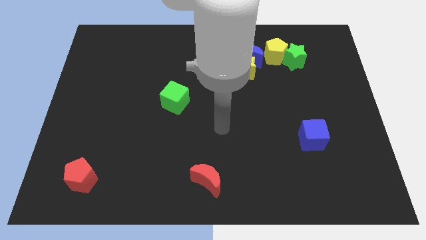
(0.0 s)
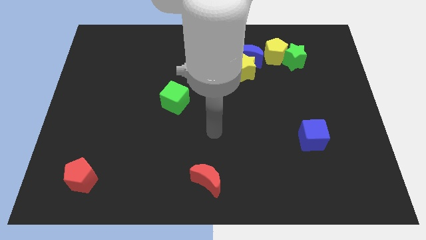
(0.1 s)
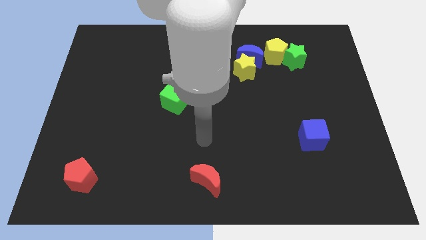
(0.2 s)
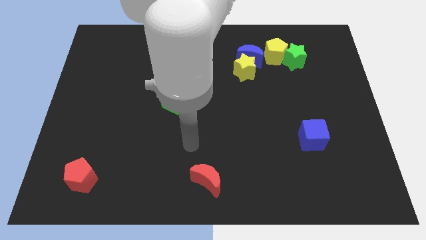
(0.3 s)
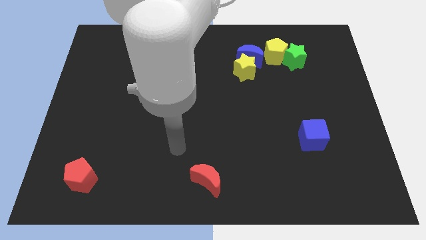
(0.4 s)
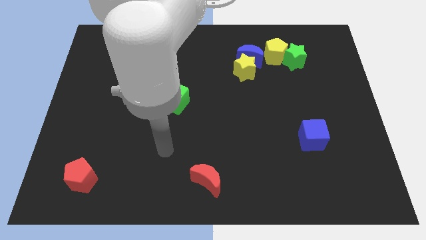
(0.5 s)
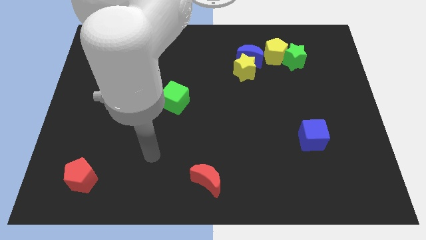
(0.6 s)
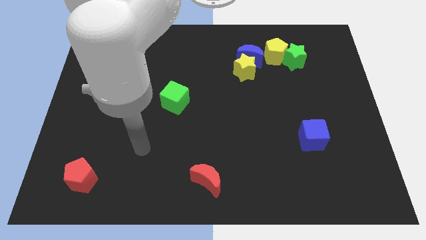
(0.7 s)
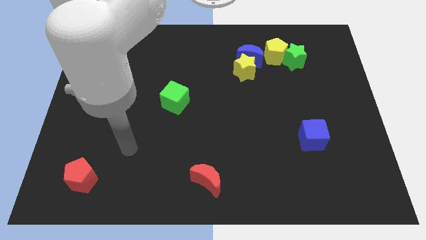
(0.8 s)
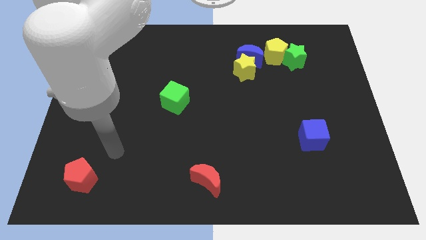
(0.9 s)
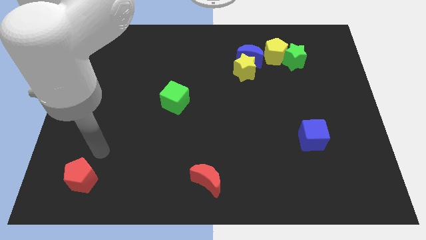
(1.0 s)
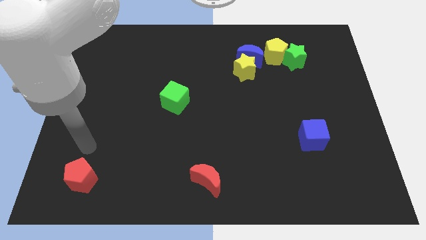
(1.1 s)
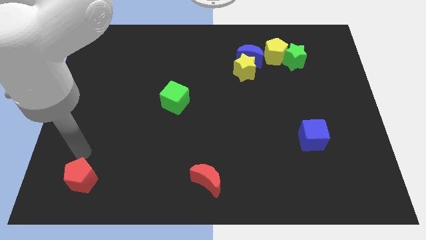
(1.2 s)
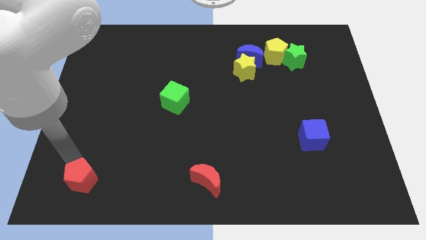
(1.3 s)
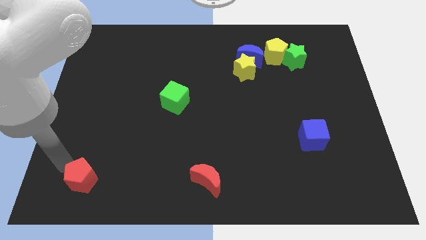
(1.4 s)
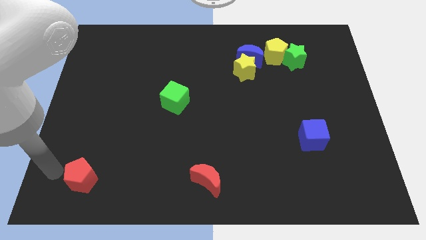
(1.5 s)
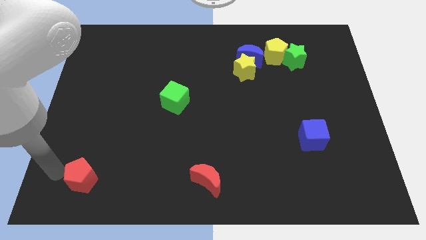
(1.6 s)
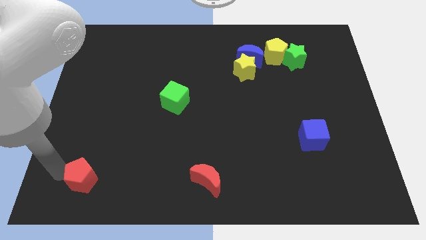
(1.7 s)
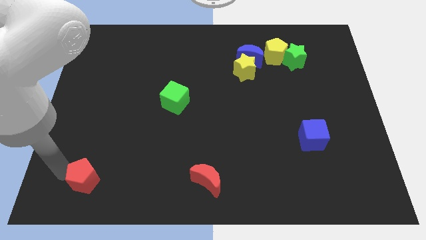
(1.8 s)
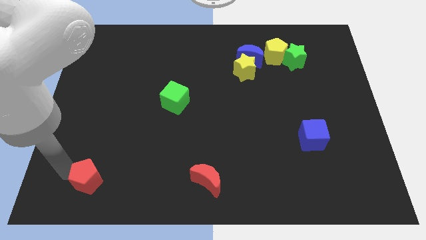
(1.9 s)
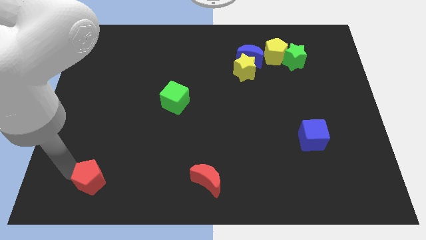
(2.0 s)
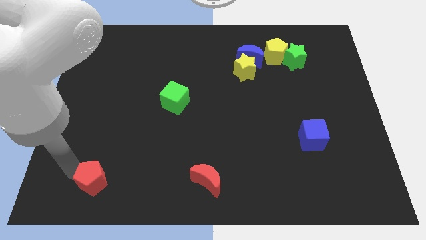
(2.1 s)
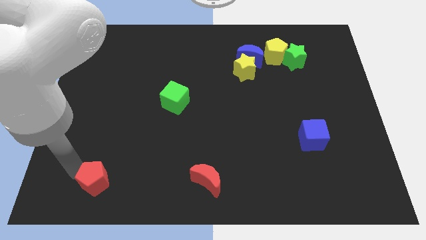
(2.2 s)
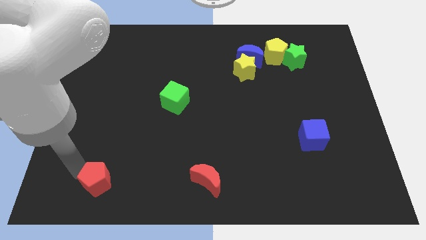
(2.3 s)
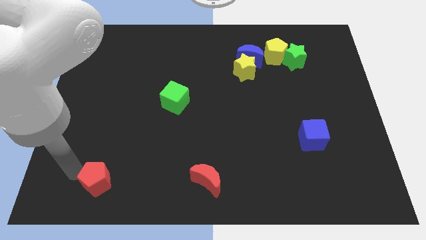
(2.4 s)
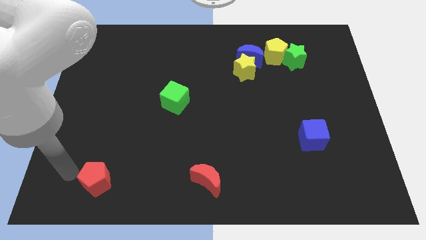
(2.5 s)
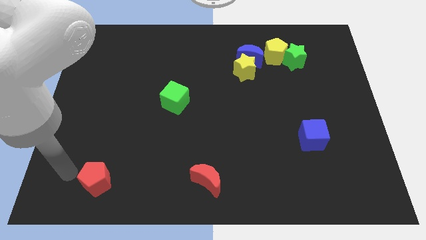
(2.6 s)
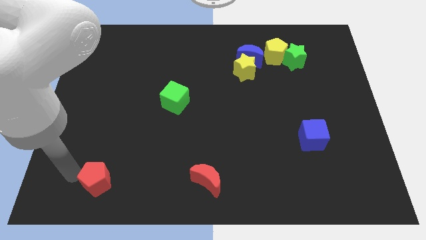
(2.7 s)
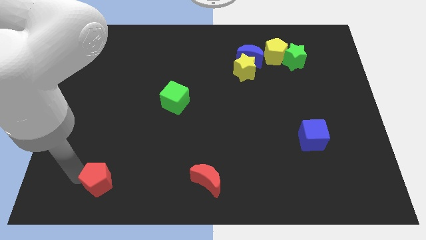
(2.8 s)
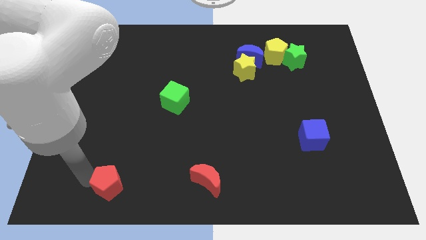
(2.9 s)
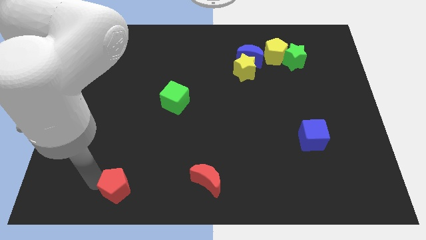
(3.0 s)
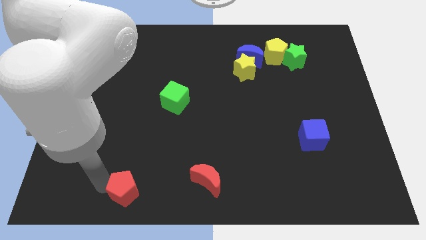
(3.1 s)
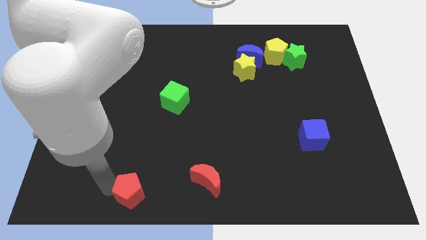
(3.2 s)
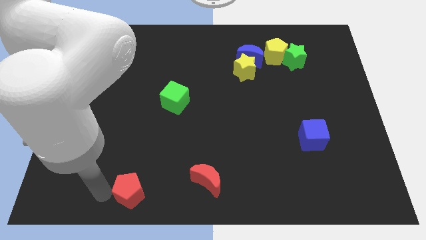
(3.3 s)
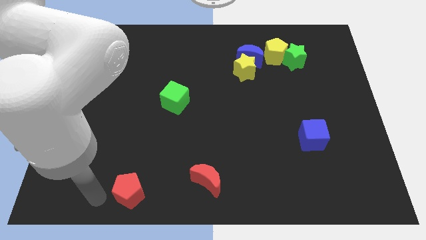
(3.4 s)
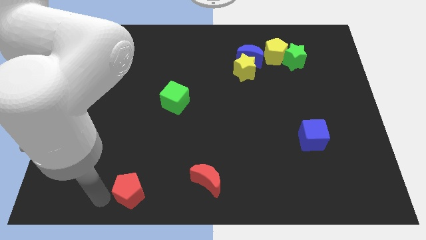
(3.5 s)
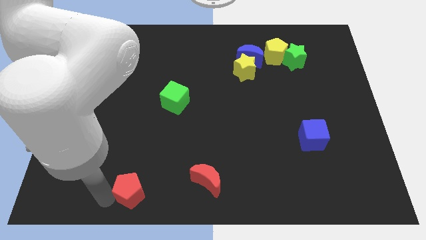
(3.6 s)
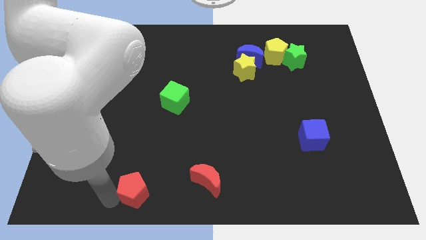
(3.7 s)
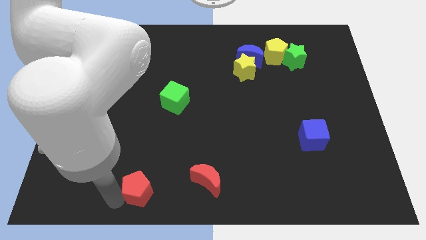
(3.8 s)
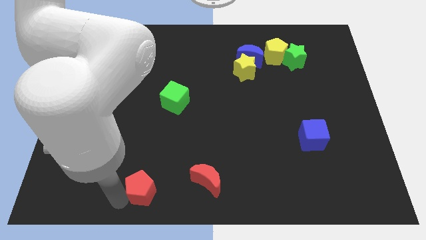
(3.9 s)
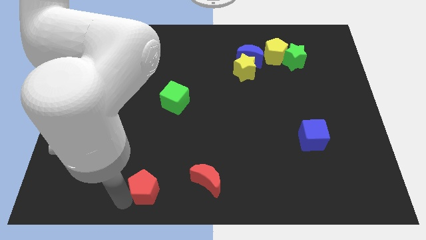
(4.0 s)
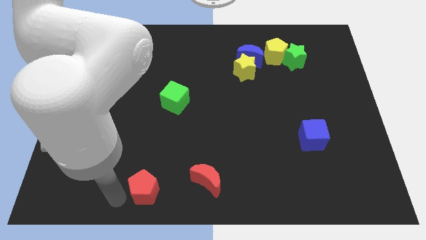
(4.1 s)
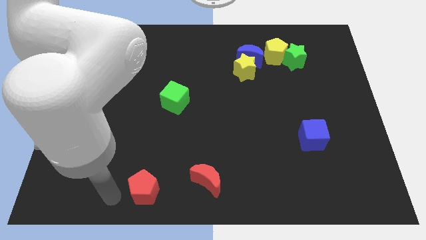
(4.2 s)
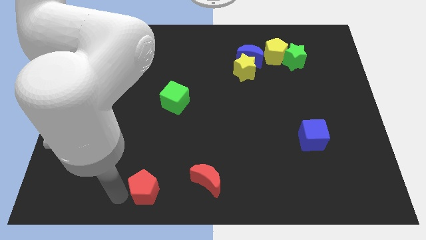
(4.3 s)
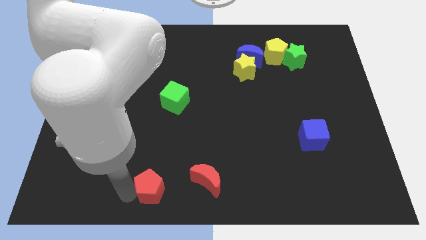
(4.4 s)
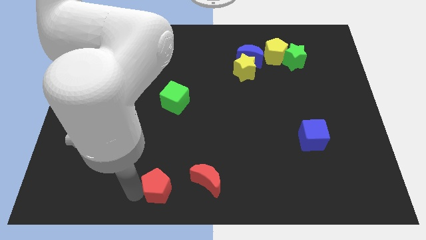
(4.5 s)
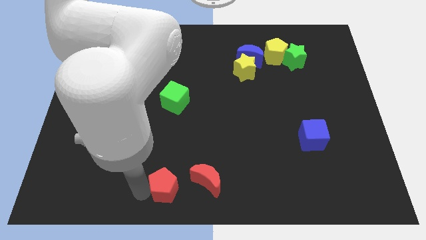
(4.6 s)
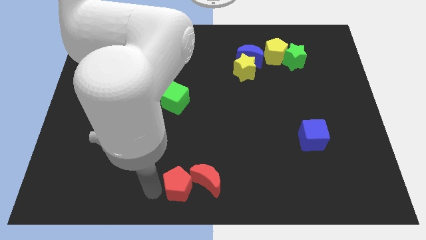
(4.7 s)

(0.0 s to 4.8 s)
slide the red pentagon close to the red moon

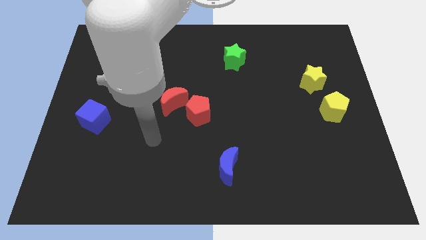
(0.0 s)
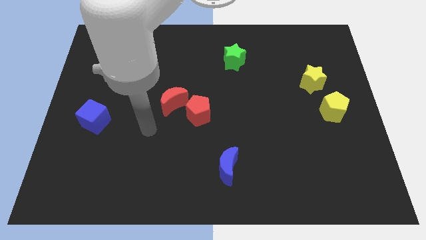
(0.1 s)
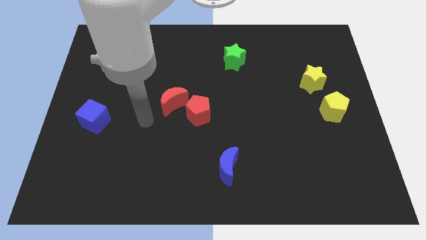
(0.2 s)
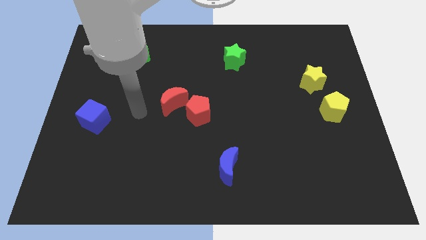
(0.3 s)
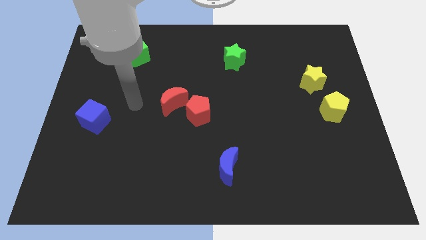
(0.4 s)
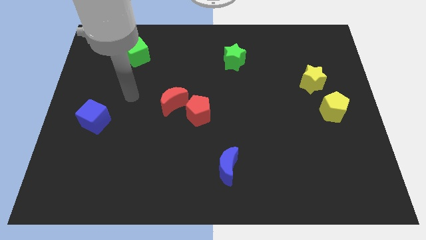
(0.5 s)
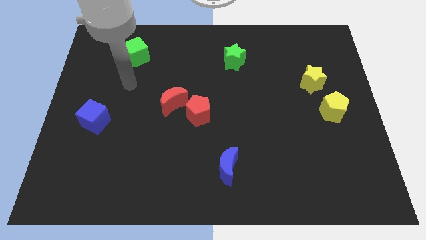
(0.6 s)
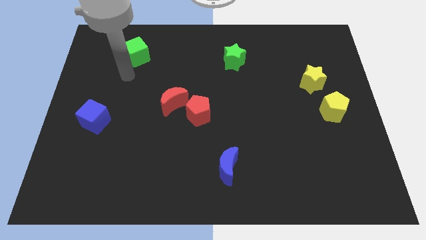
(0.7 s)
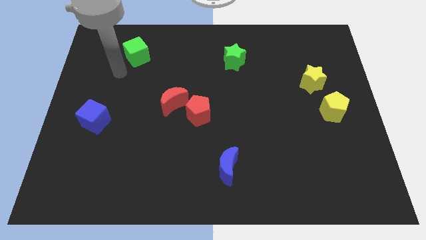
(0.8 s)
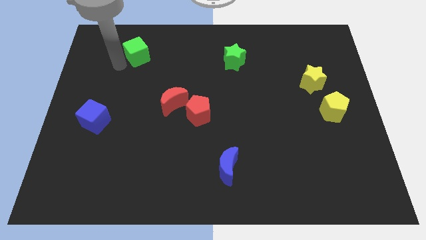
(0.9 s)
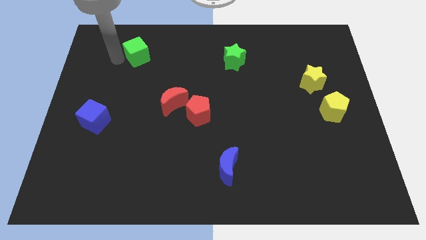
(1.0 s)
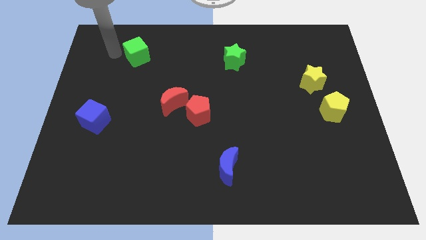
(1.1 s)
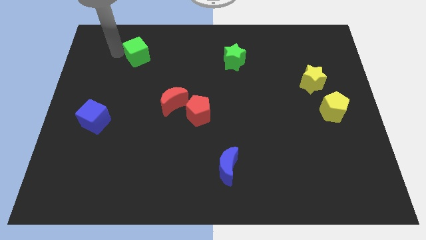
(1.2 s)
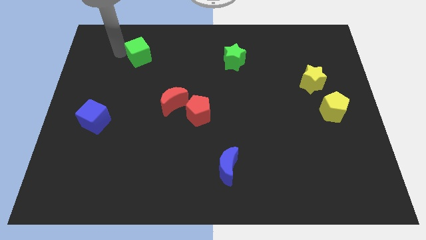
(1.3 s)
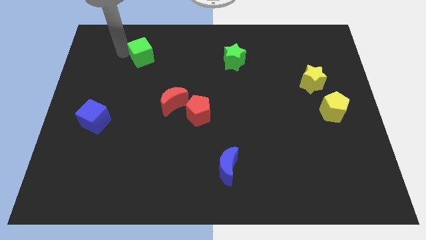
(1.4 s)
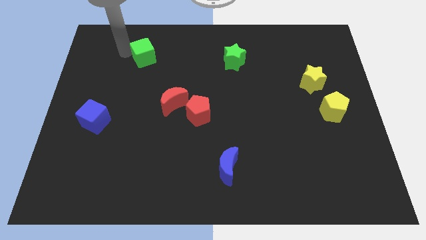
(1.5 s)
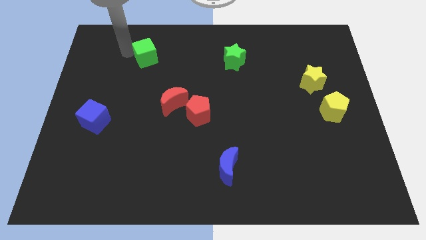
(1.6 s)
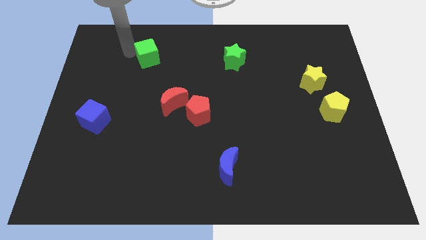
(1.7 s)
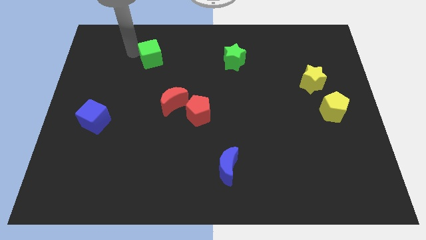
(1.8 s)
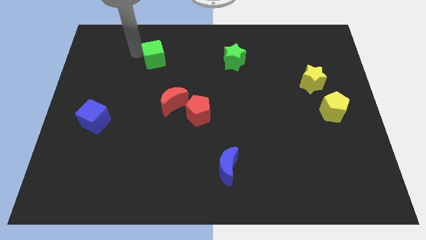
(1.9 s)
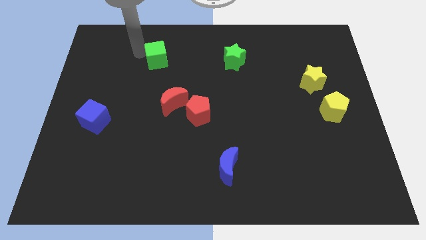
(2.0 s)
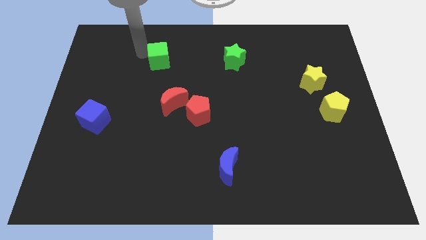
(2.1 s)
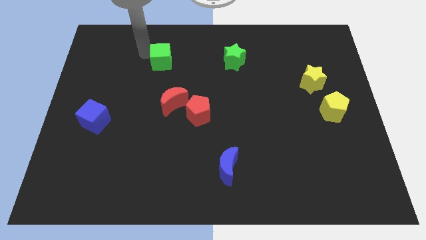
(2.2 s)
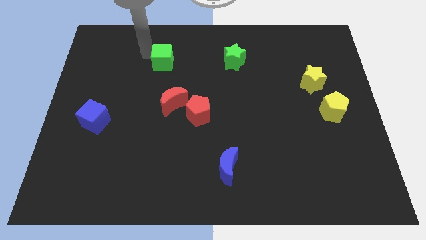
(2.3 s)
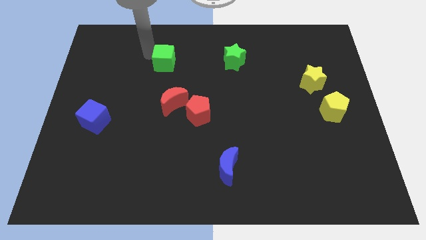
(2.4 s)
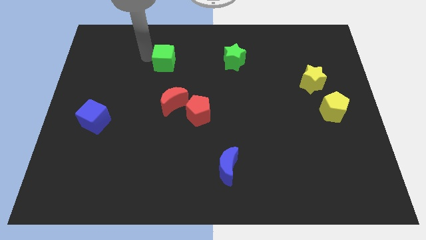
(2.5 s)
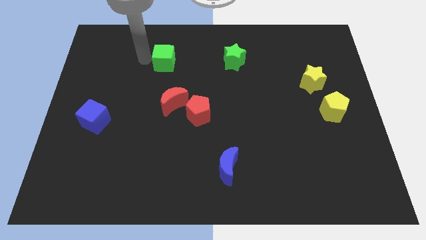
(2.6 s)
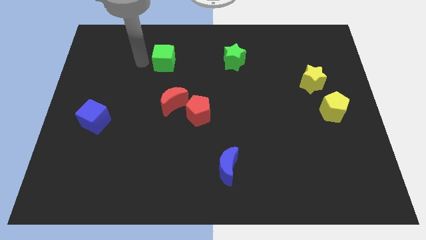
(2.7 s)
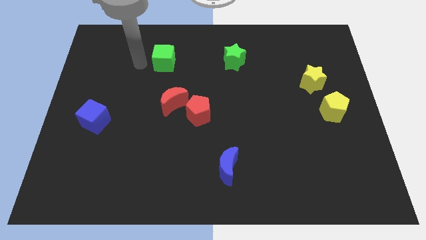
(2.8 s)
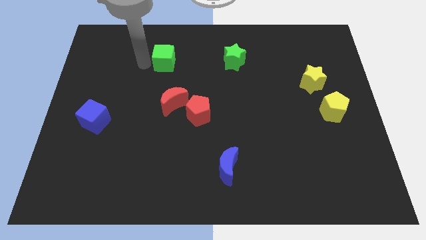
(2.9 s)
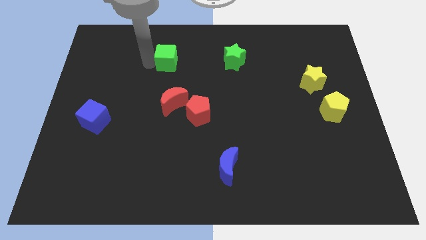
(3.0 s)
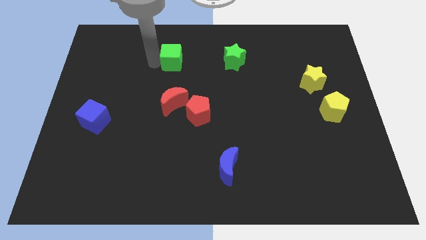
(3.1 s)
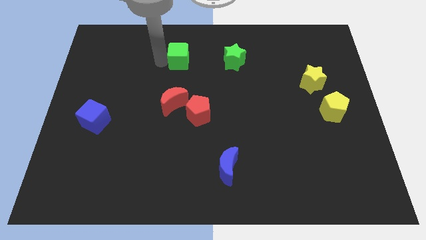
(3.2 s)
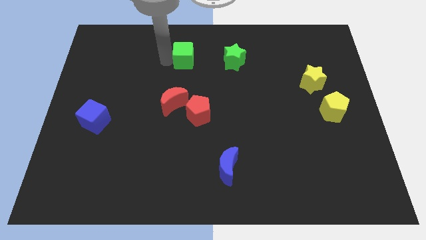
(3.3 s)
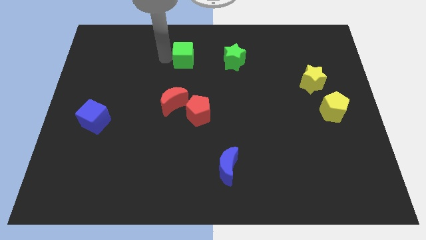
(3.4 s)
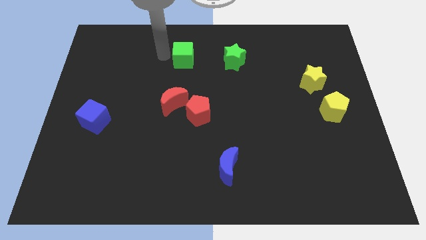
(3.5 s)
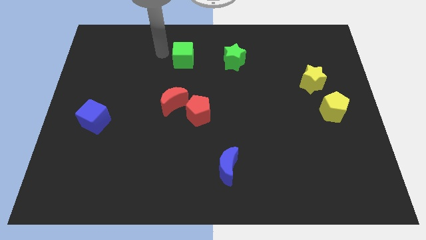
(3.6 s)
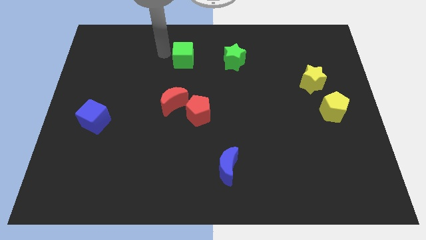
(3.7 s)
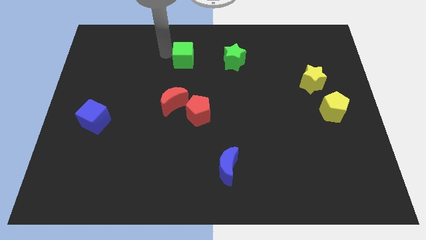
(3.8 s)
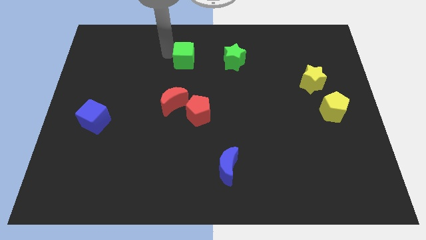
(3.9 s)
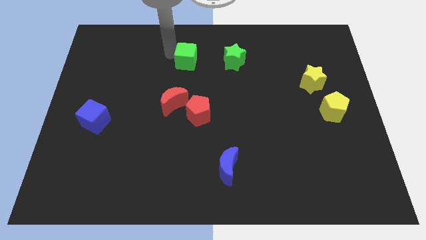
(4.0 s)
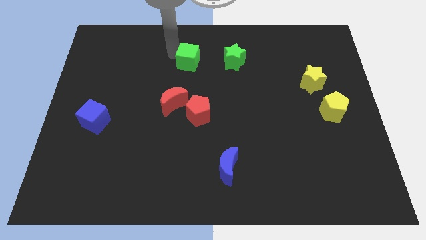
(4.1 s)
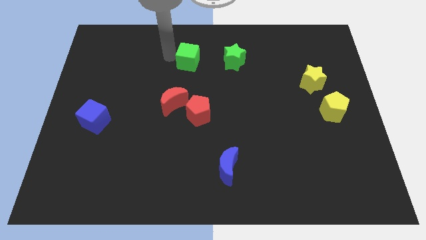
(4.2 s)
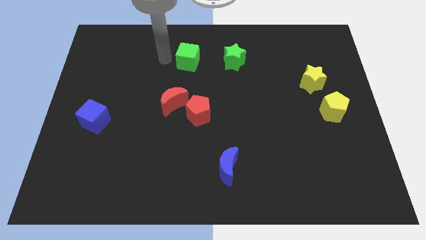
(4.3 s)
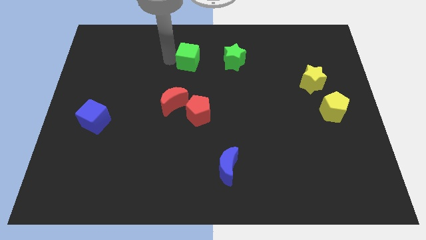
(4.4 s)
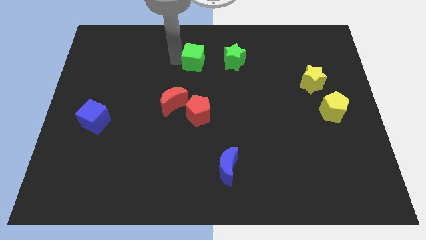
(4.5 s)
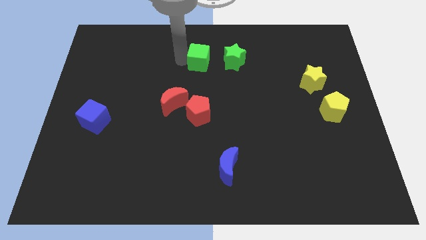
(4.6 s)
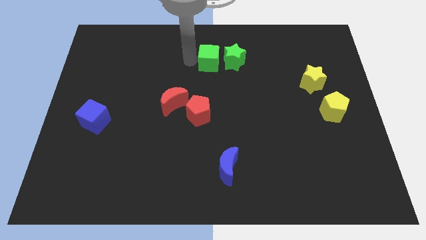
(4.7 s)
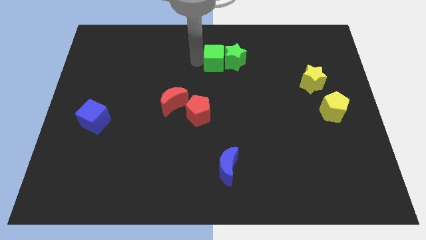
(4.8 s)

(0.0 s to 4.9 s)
move the green cube towards the green star
